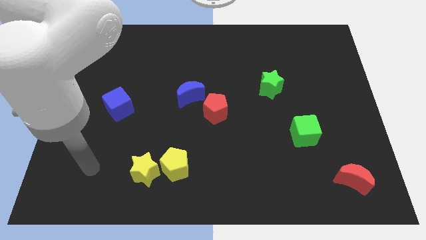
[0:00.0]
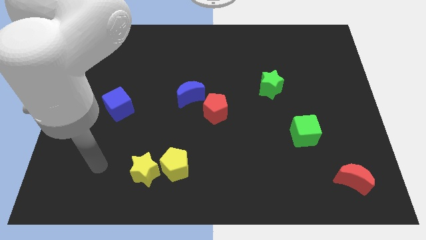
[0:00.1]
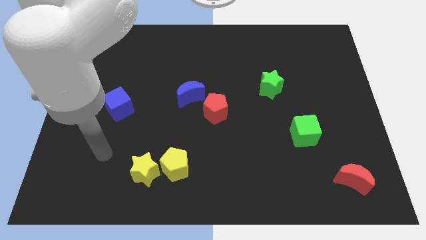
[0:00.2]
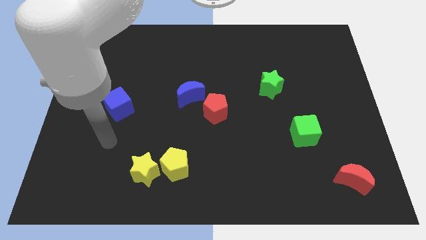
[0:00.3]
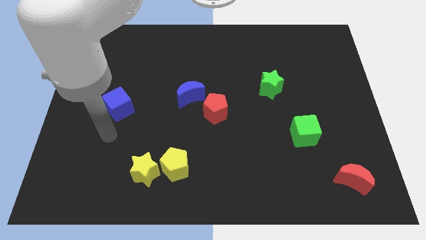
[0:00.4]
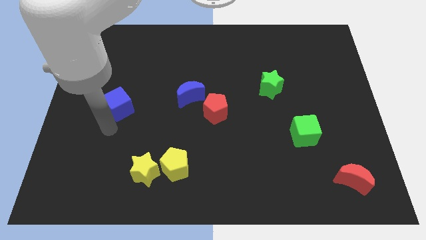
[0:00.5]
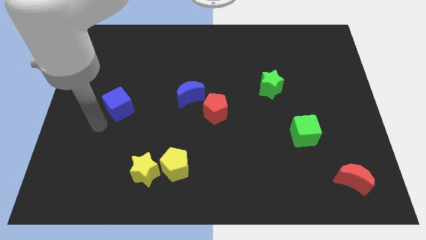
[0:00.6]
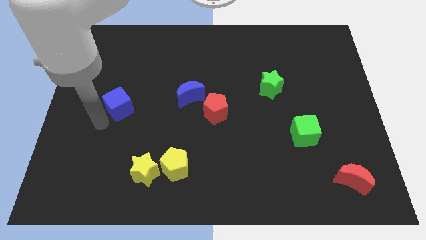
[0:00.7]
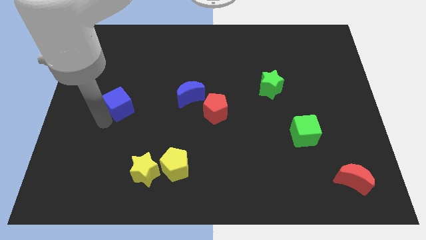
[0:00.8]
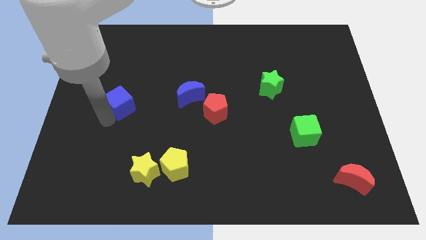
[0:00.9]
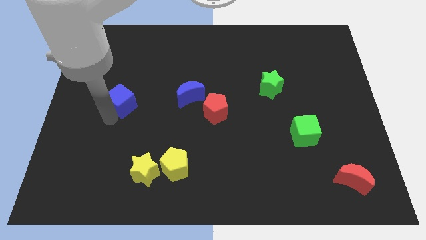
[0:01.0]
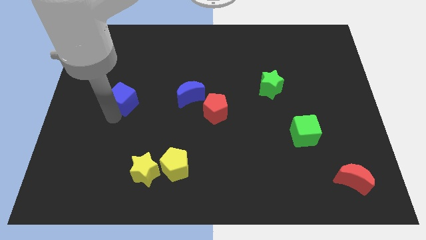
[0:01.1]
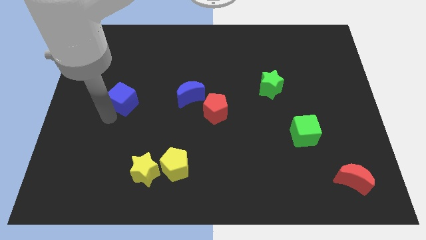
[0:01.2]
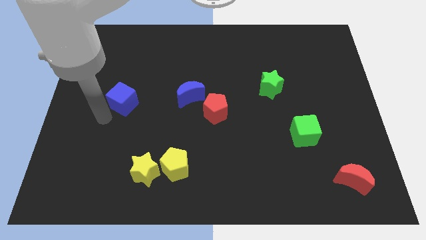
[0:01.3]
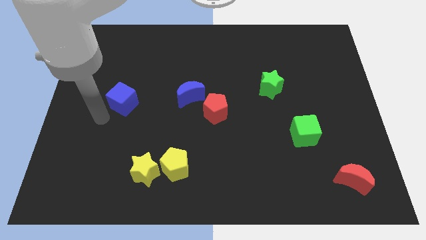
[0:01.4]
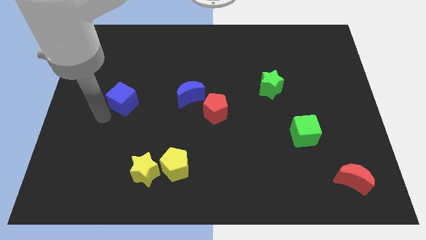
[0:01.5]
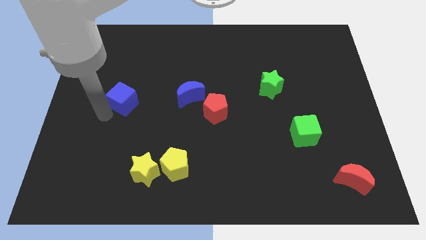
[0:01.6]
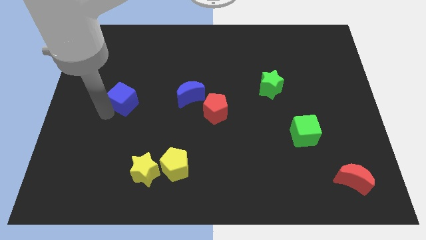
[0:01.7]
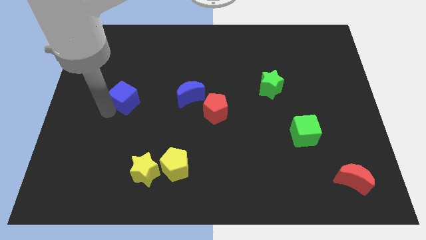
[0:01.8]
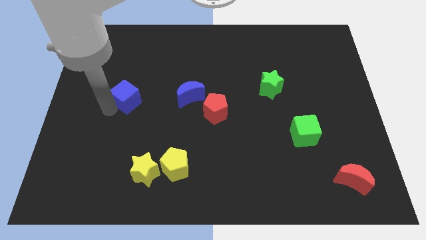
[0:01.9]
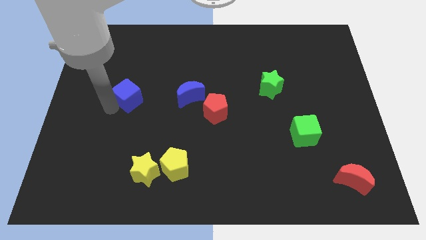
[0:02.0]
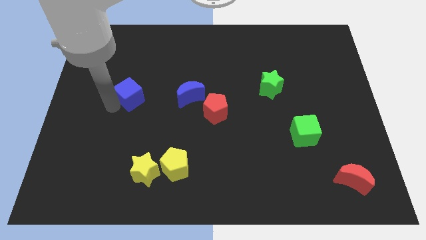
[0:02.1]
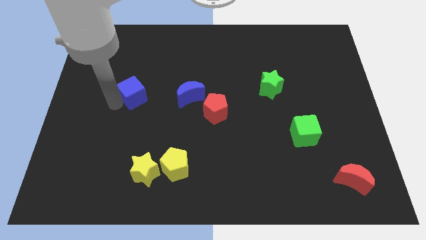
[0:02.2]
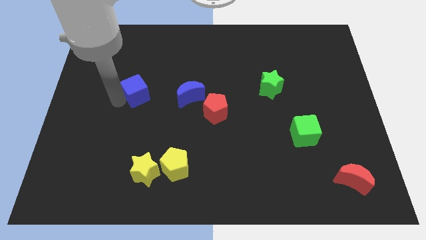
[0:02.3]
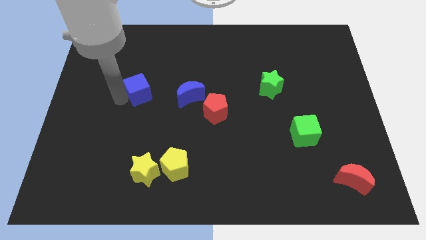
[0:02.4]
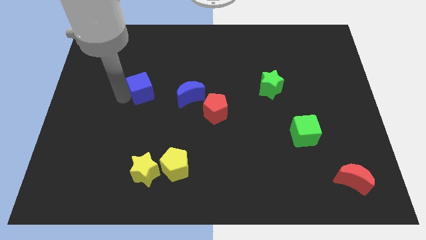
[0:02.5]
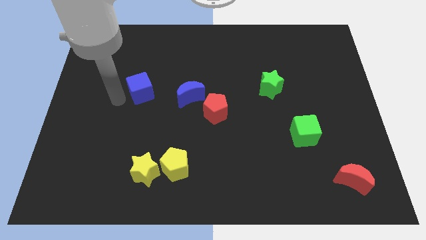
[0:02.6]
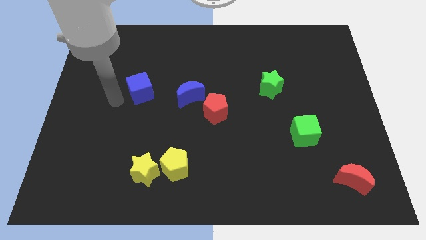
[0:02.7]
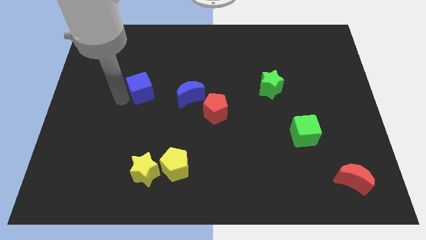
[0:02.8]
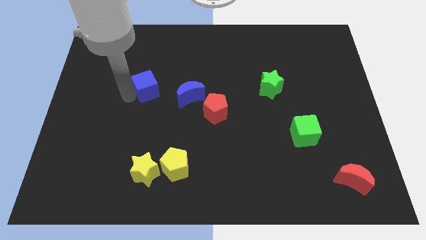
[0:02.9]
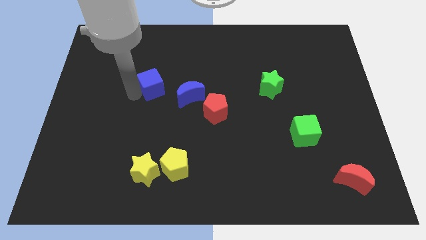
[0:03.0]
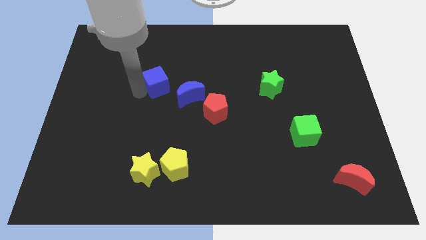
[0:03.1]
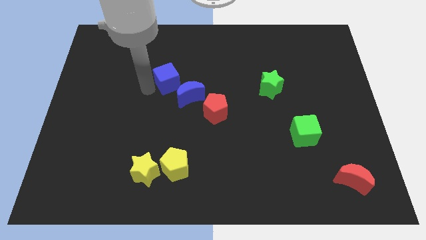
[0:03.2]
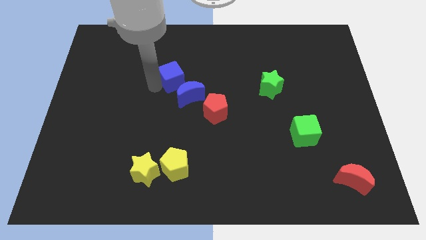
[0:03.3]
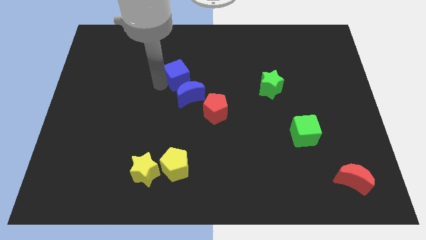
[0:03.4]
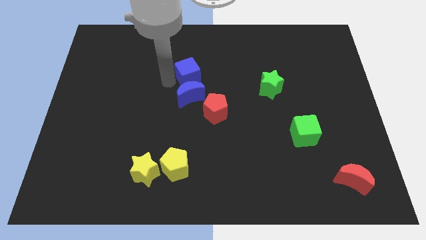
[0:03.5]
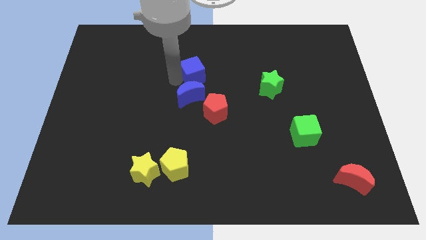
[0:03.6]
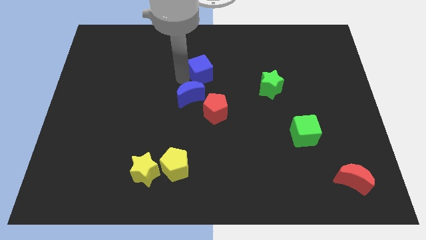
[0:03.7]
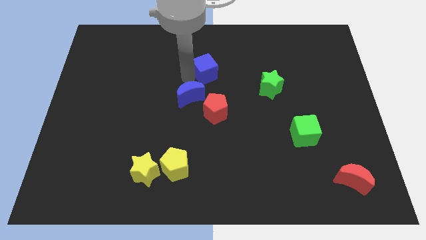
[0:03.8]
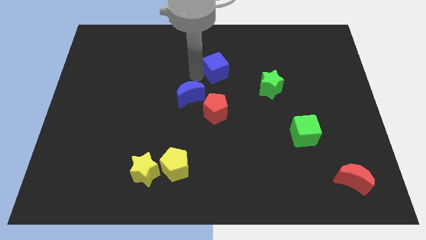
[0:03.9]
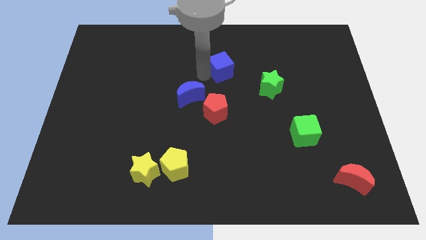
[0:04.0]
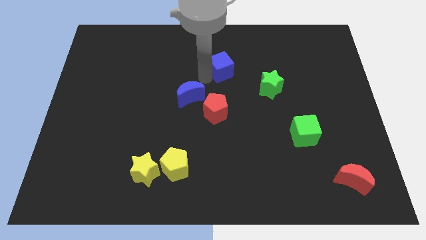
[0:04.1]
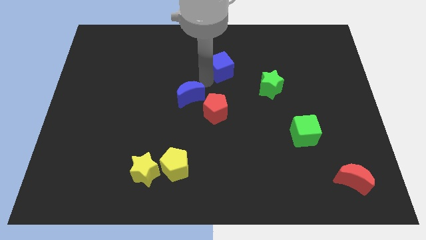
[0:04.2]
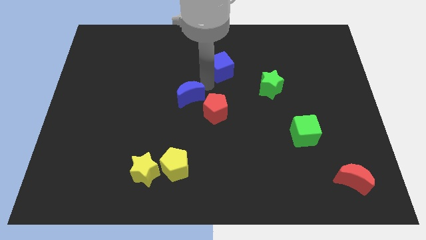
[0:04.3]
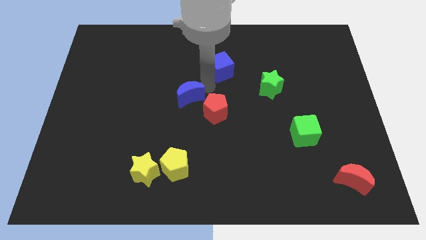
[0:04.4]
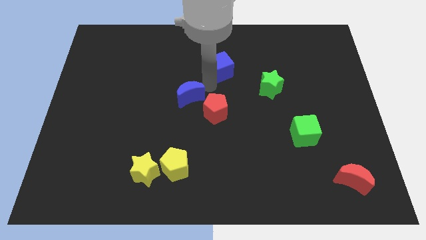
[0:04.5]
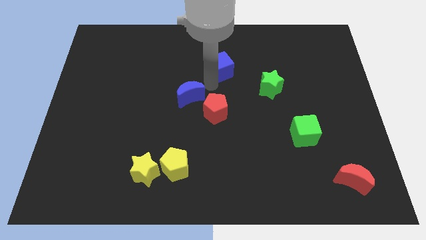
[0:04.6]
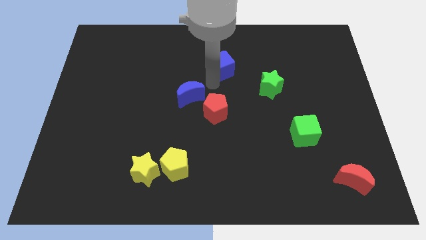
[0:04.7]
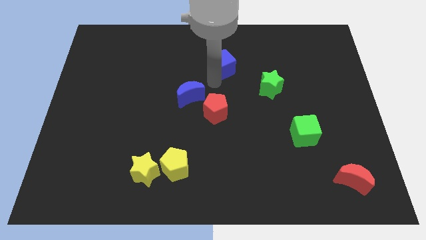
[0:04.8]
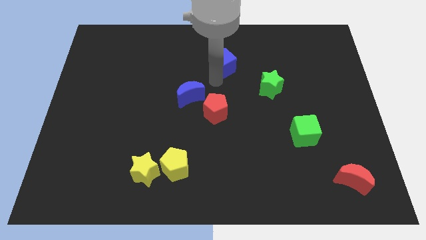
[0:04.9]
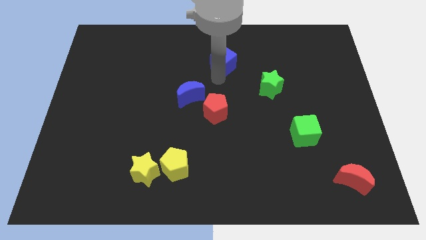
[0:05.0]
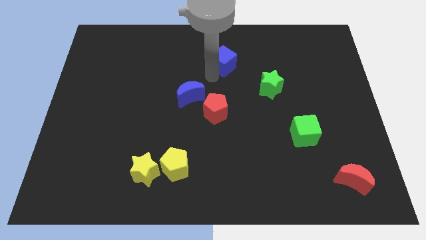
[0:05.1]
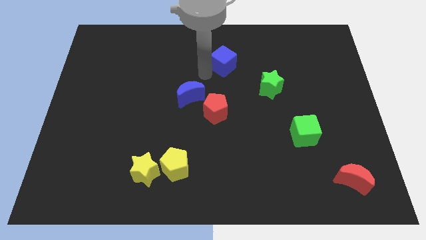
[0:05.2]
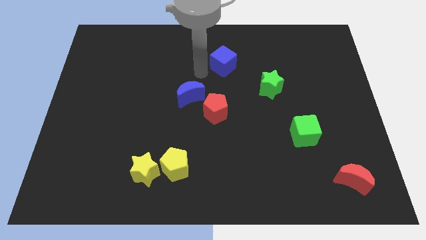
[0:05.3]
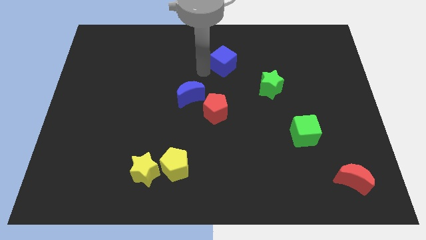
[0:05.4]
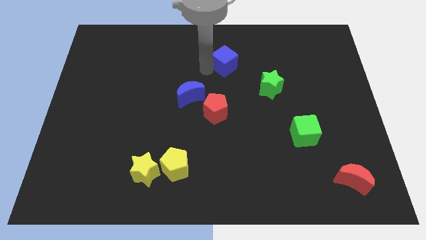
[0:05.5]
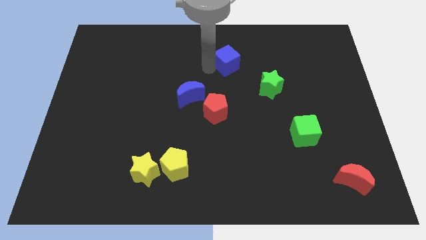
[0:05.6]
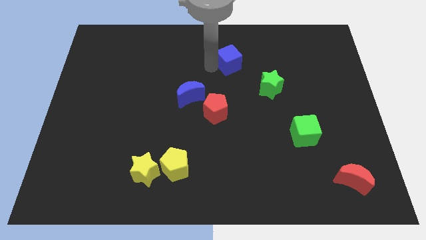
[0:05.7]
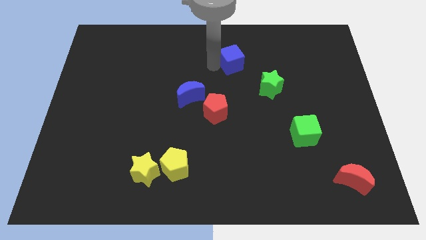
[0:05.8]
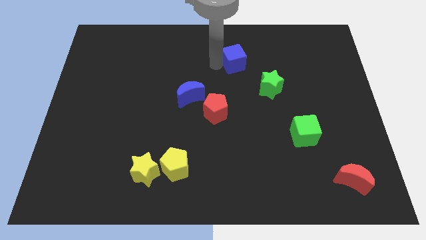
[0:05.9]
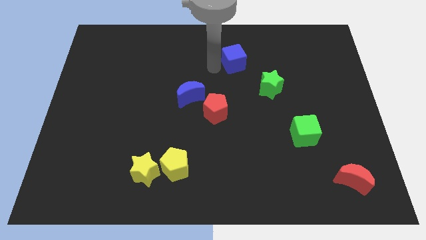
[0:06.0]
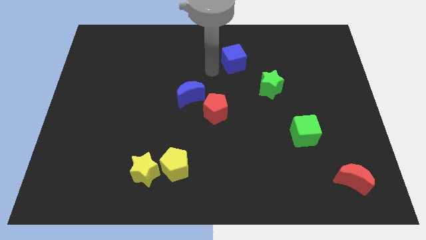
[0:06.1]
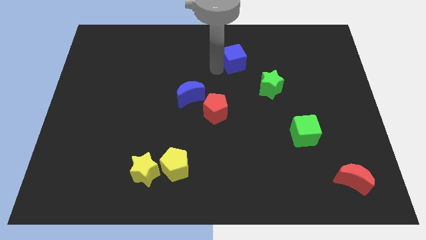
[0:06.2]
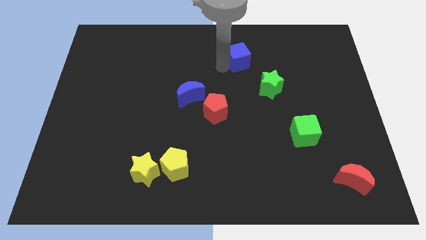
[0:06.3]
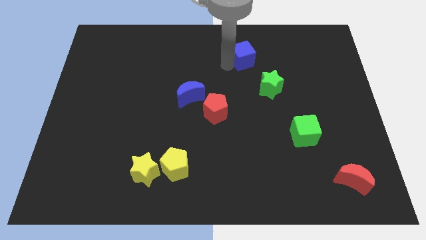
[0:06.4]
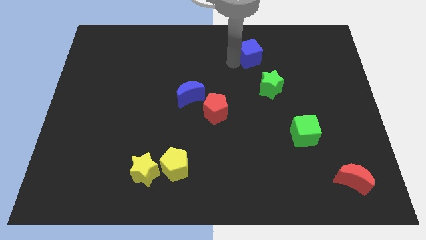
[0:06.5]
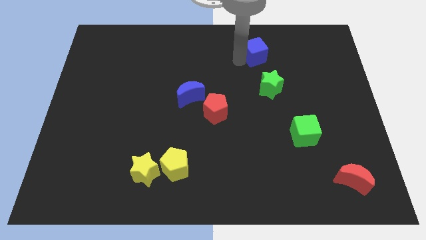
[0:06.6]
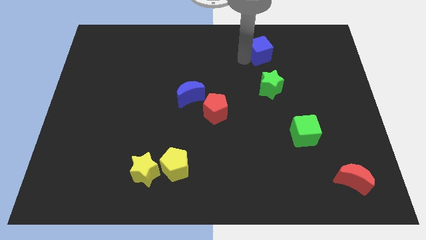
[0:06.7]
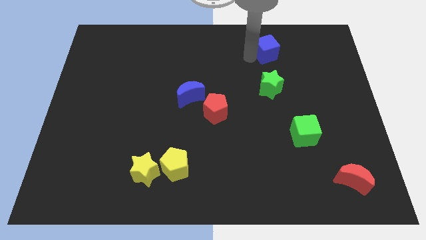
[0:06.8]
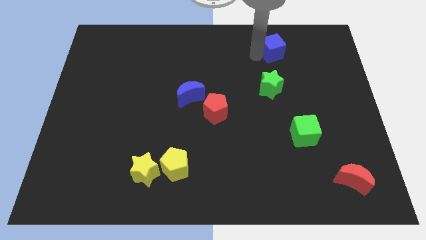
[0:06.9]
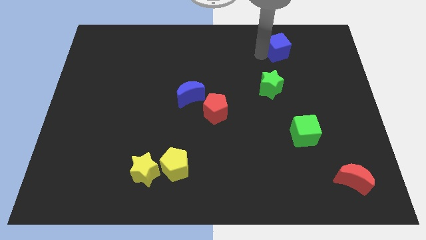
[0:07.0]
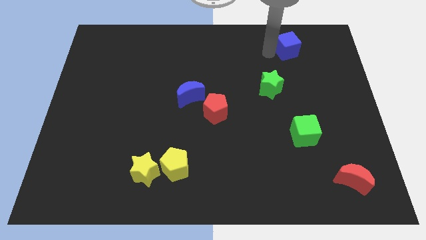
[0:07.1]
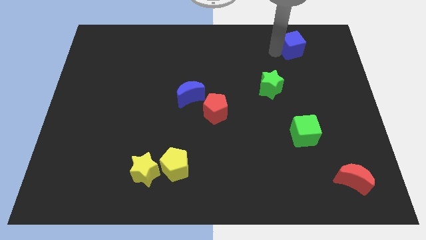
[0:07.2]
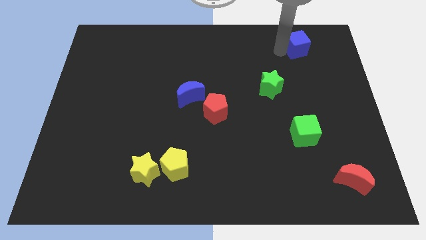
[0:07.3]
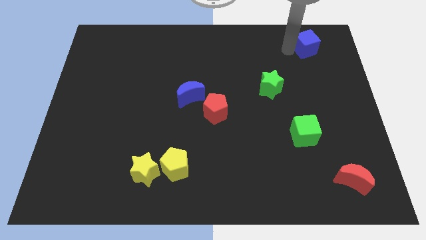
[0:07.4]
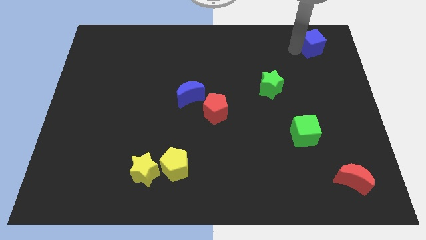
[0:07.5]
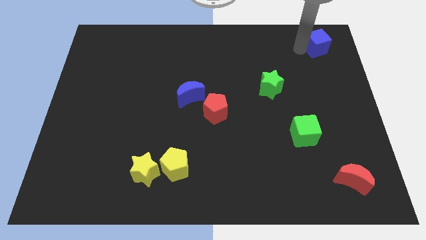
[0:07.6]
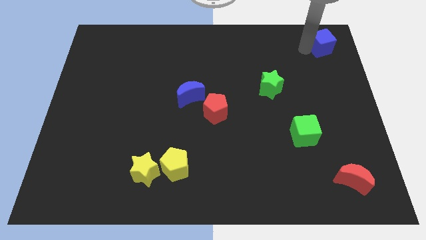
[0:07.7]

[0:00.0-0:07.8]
move the blue cube to the top right of the board
